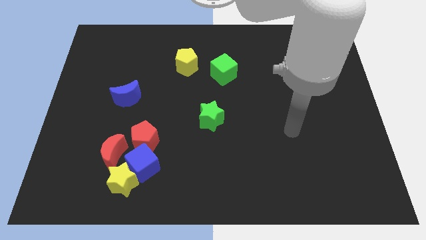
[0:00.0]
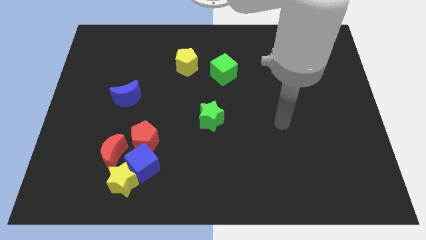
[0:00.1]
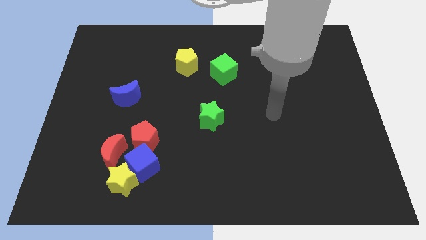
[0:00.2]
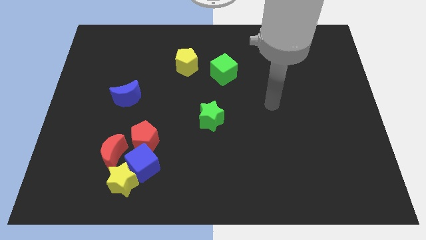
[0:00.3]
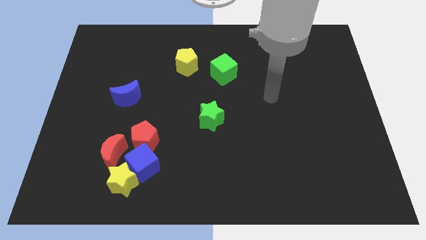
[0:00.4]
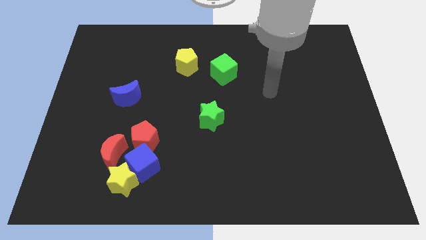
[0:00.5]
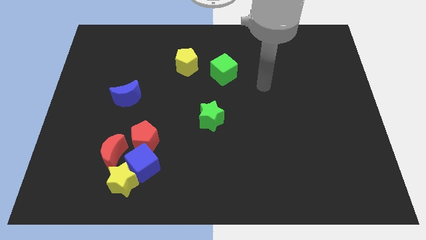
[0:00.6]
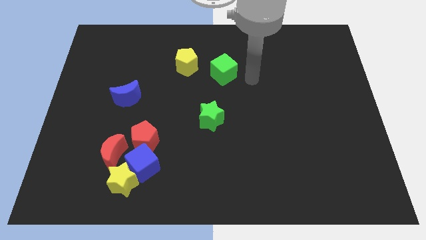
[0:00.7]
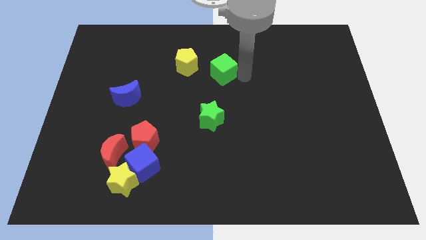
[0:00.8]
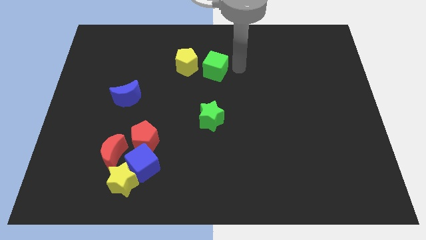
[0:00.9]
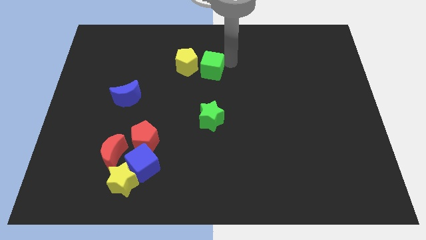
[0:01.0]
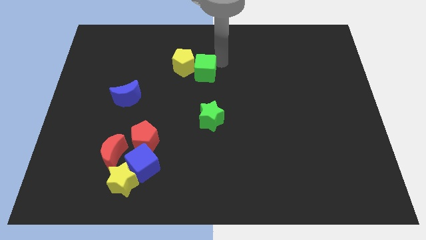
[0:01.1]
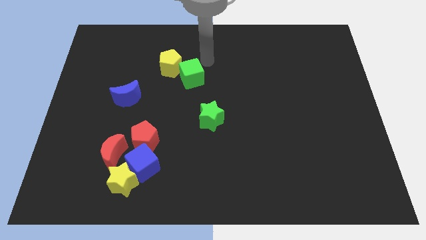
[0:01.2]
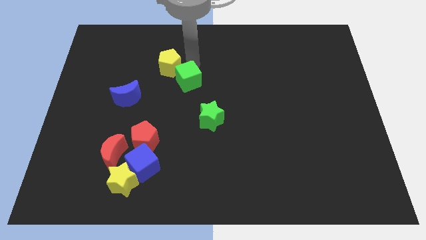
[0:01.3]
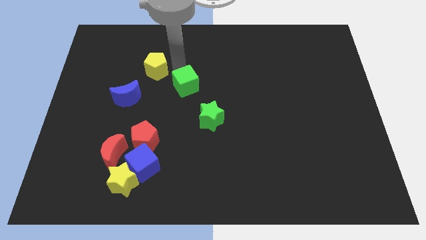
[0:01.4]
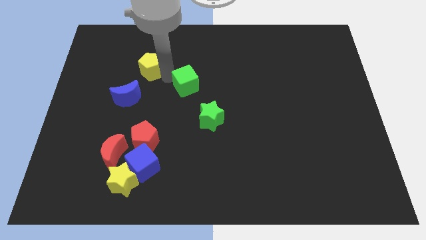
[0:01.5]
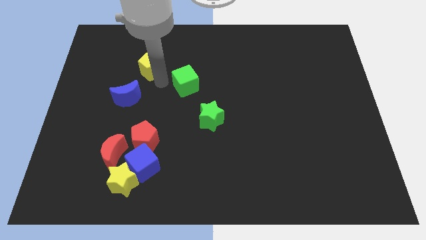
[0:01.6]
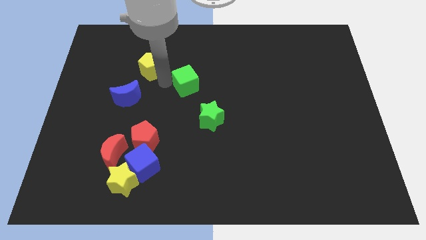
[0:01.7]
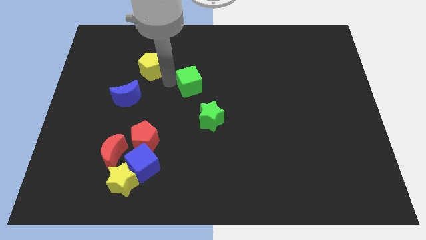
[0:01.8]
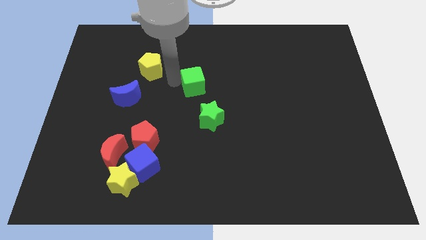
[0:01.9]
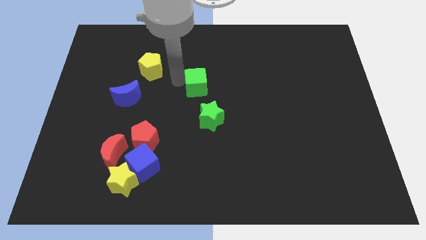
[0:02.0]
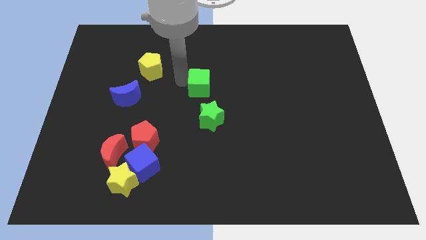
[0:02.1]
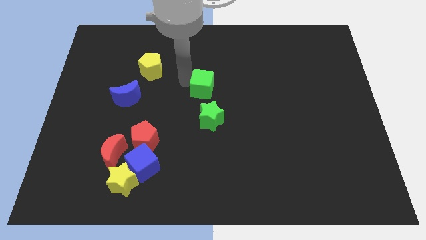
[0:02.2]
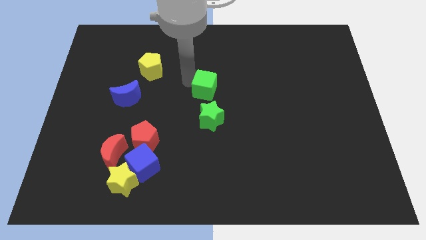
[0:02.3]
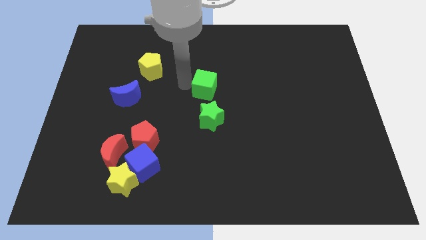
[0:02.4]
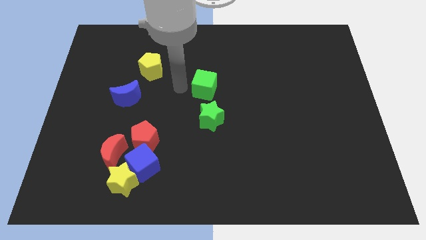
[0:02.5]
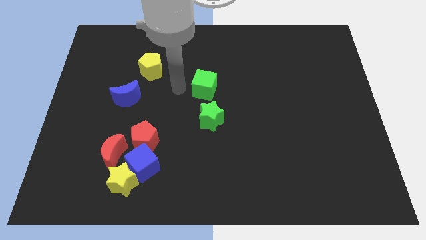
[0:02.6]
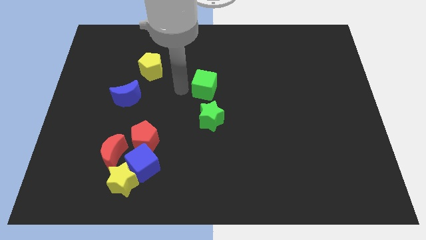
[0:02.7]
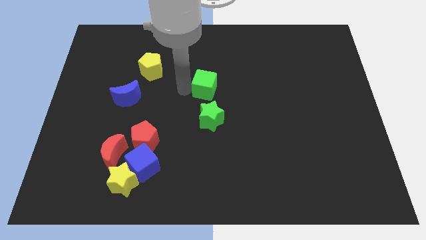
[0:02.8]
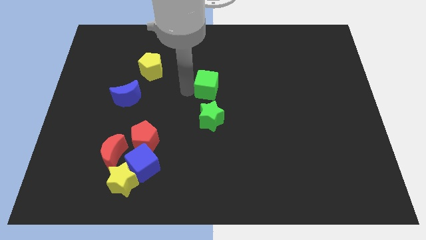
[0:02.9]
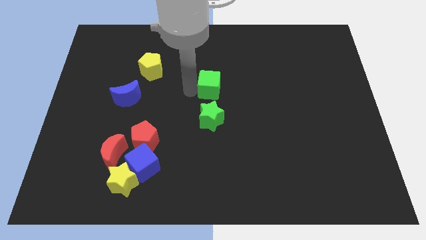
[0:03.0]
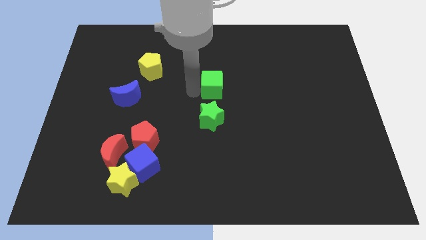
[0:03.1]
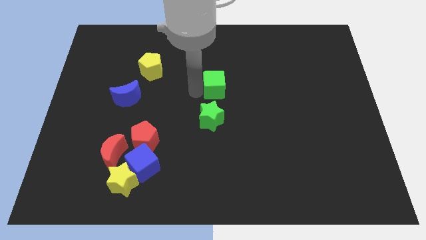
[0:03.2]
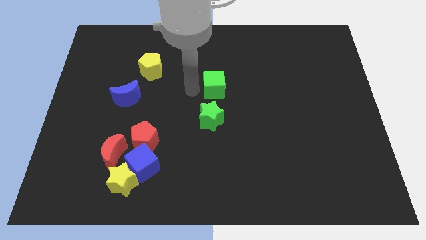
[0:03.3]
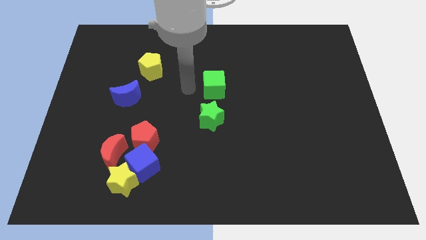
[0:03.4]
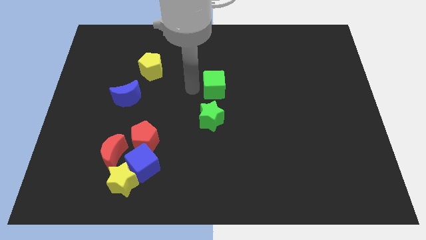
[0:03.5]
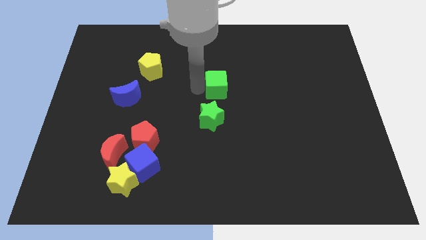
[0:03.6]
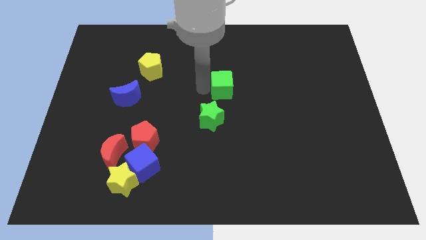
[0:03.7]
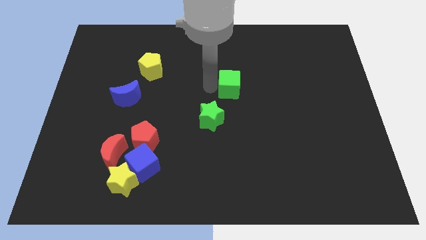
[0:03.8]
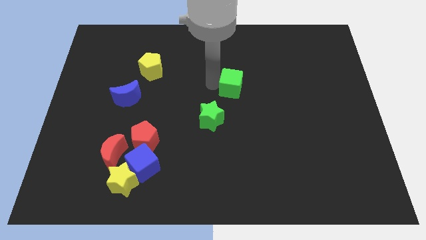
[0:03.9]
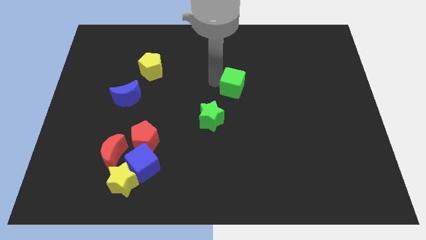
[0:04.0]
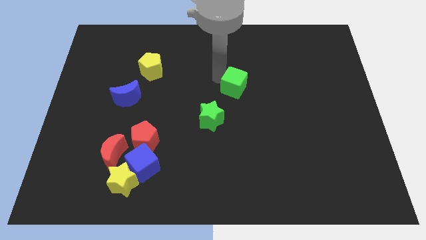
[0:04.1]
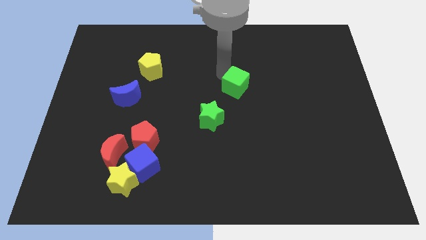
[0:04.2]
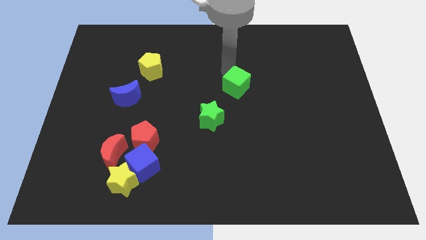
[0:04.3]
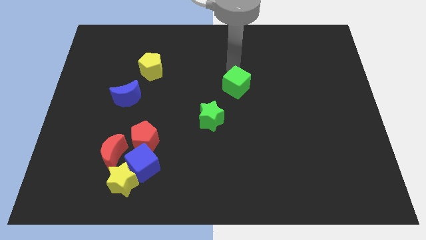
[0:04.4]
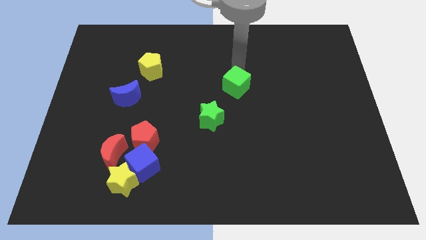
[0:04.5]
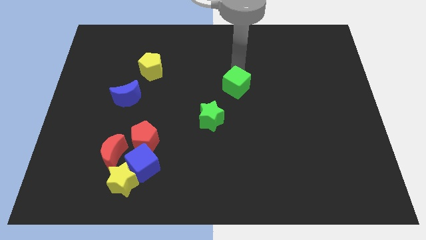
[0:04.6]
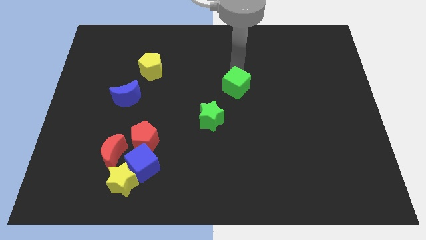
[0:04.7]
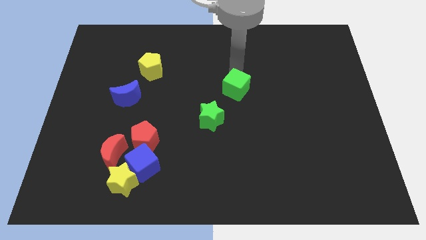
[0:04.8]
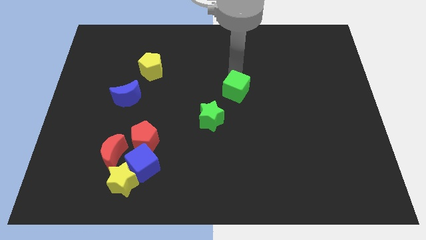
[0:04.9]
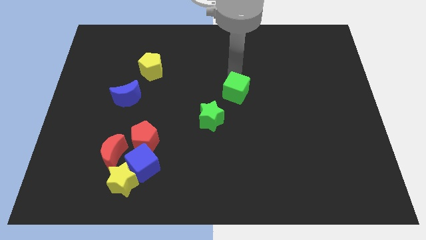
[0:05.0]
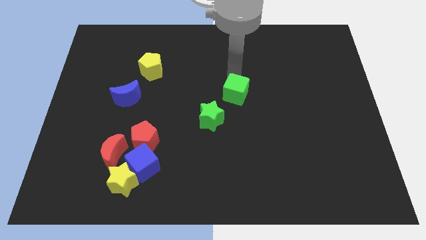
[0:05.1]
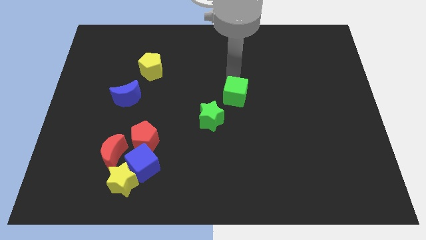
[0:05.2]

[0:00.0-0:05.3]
slide the green cube a little bit down

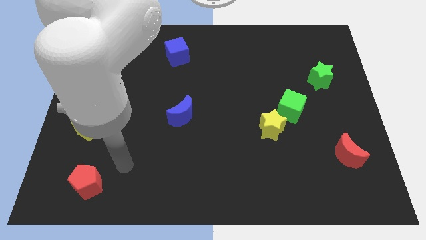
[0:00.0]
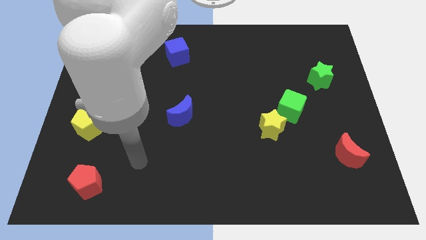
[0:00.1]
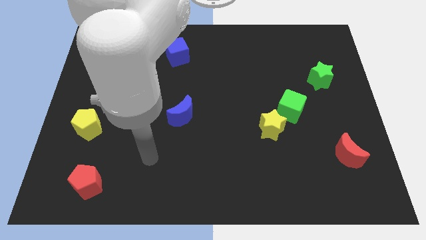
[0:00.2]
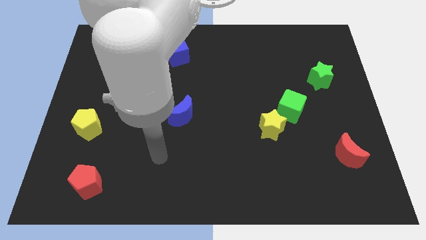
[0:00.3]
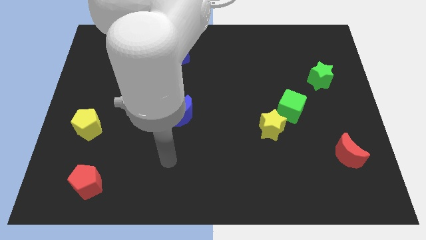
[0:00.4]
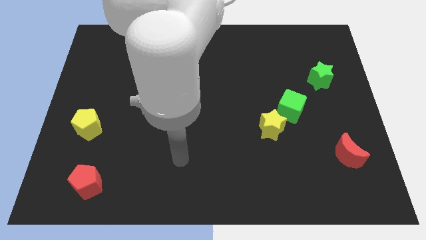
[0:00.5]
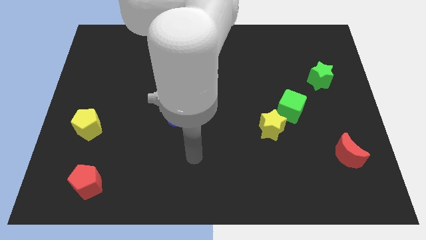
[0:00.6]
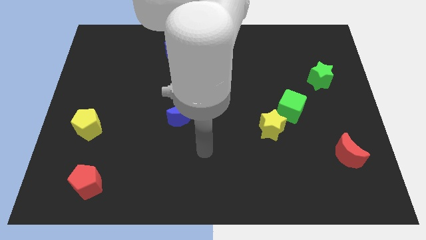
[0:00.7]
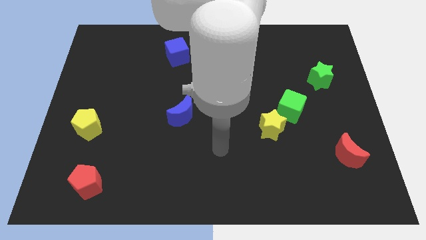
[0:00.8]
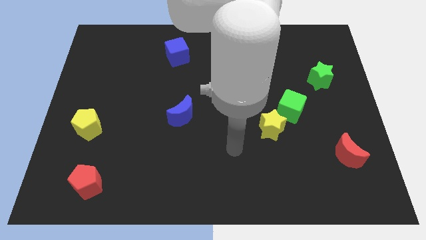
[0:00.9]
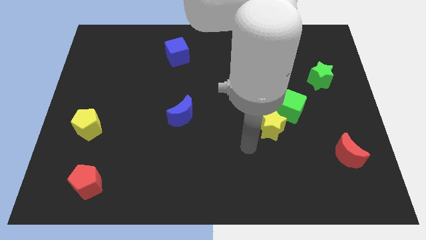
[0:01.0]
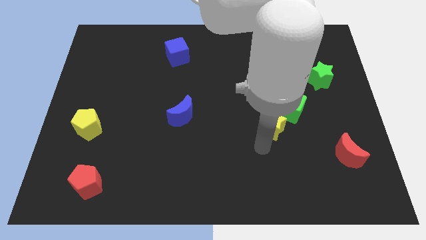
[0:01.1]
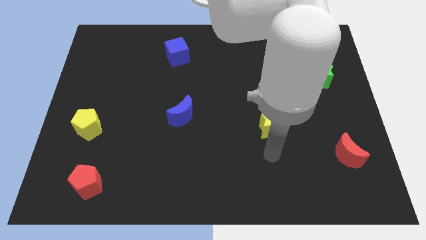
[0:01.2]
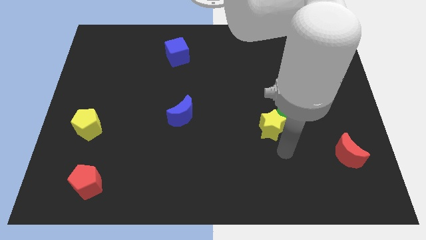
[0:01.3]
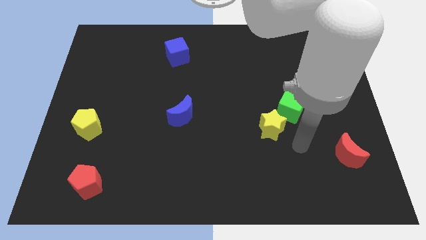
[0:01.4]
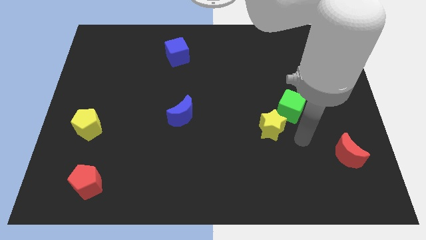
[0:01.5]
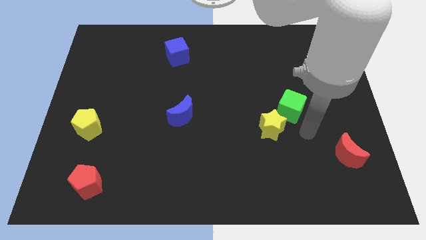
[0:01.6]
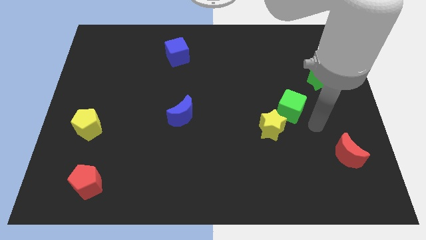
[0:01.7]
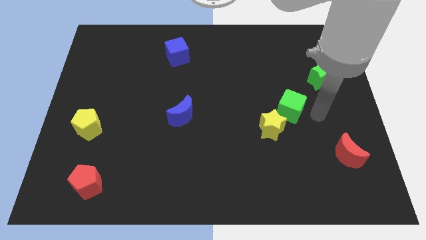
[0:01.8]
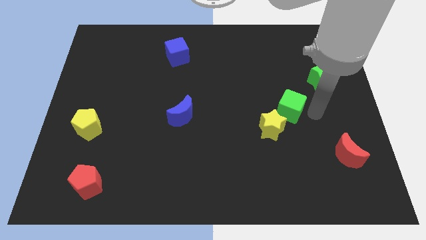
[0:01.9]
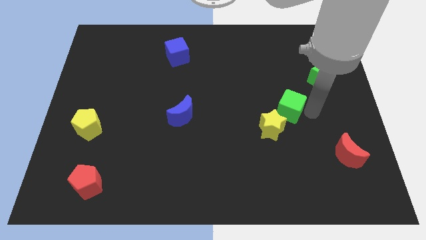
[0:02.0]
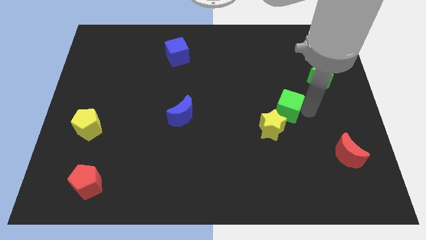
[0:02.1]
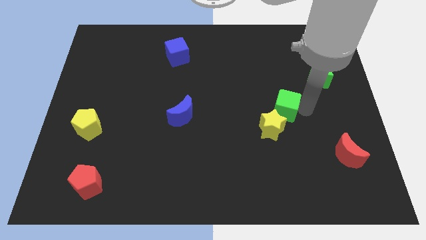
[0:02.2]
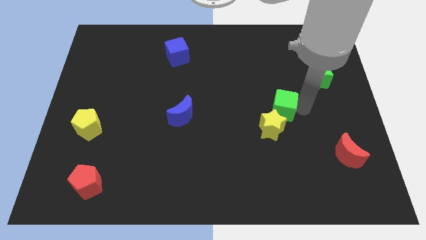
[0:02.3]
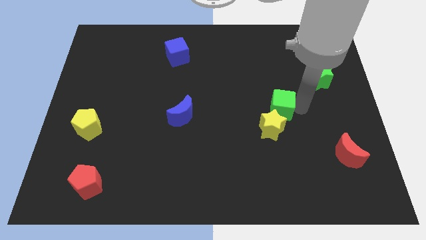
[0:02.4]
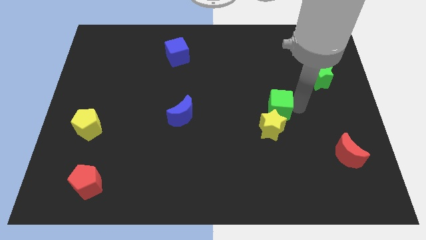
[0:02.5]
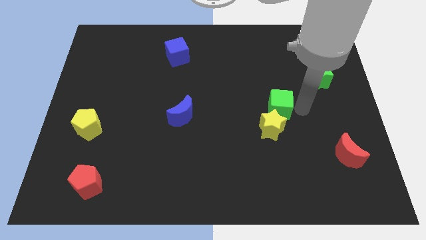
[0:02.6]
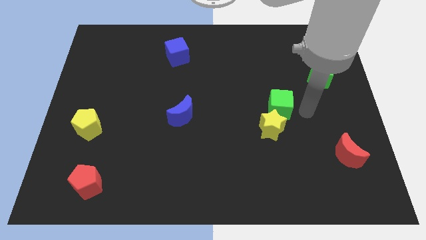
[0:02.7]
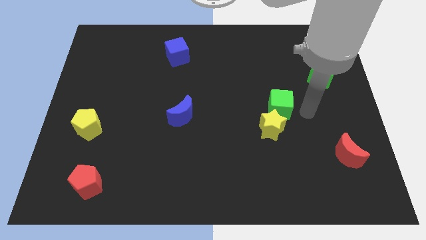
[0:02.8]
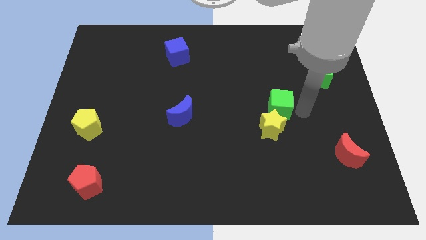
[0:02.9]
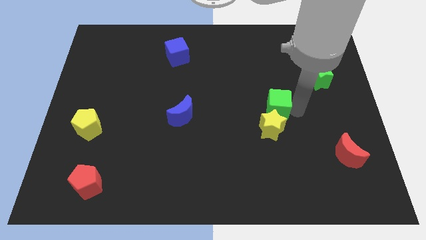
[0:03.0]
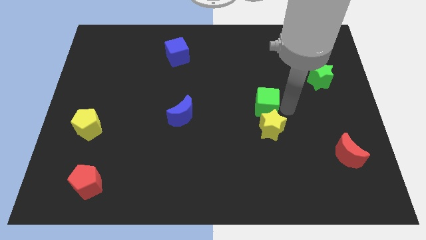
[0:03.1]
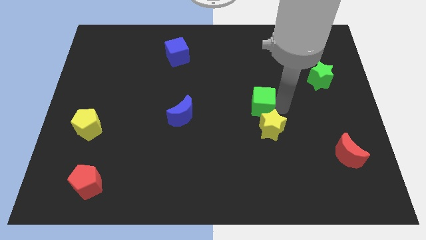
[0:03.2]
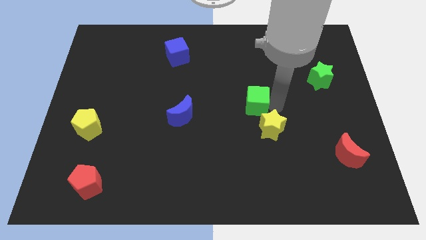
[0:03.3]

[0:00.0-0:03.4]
move the green cube slightly to the left
